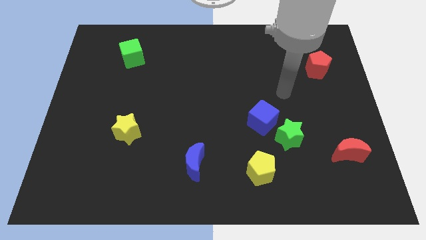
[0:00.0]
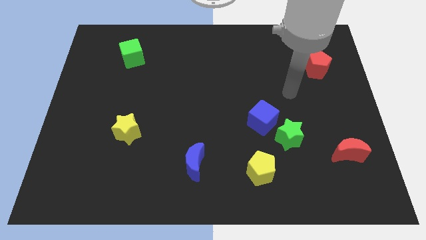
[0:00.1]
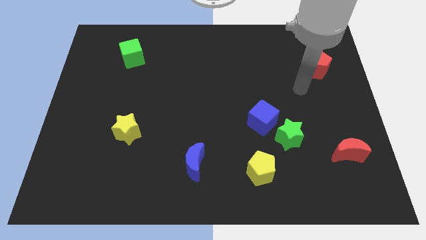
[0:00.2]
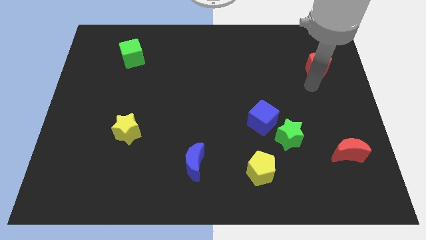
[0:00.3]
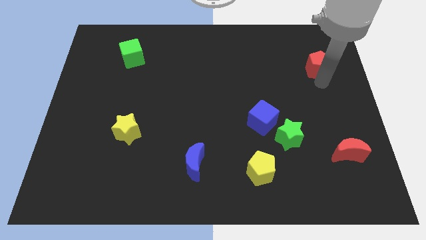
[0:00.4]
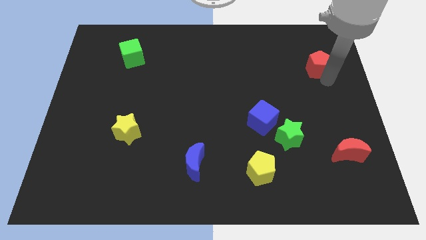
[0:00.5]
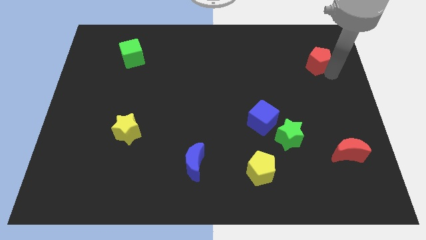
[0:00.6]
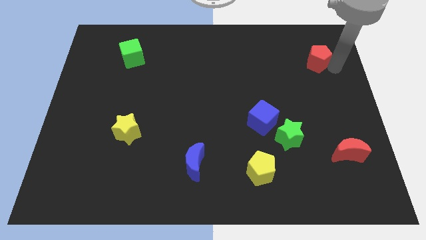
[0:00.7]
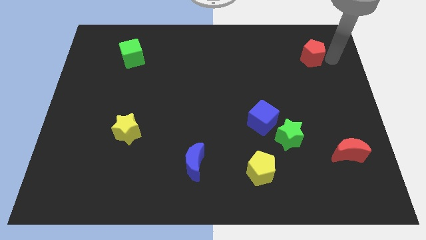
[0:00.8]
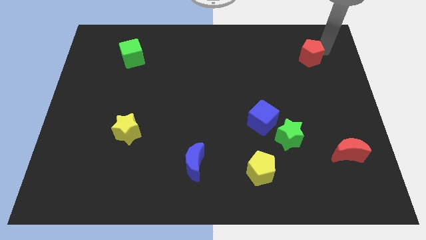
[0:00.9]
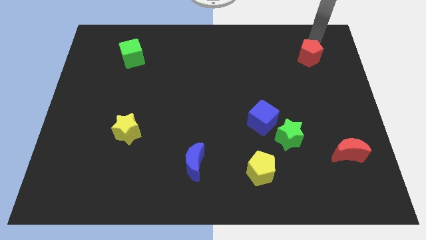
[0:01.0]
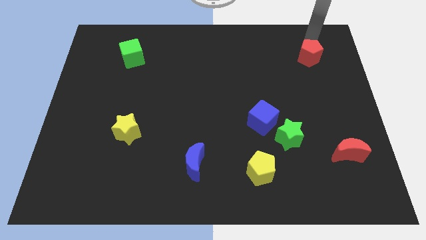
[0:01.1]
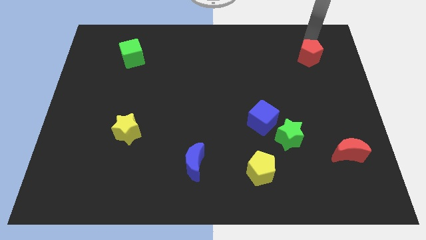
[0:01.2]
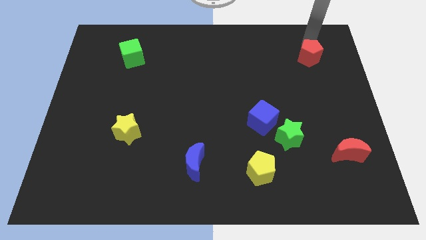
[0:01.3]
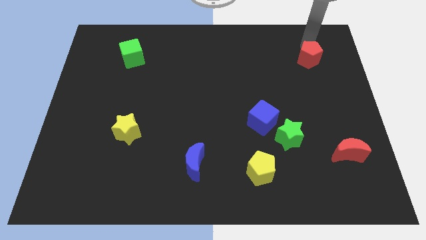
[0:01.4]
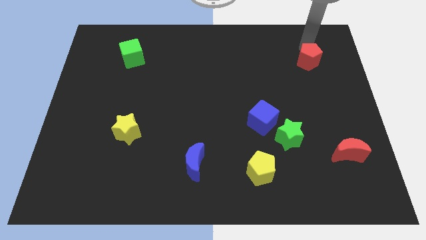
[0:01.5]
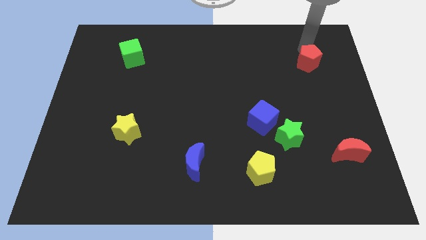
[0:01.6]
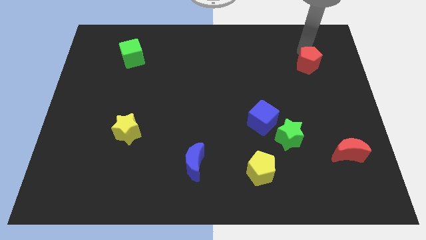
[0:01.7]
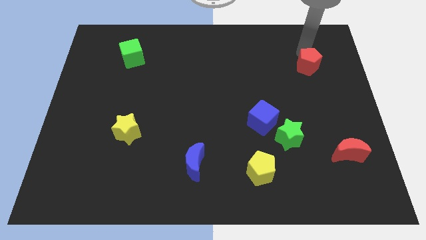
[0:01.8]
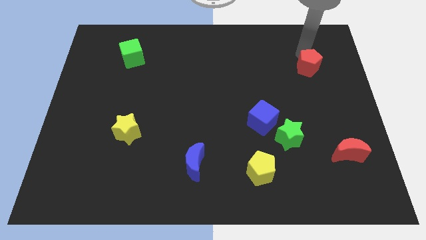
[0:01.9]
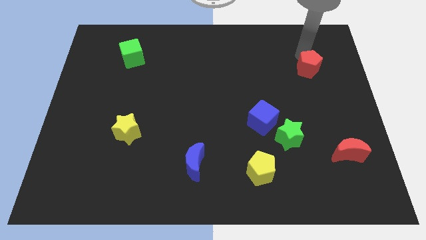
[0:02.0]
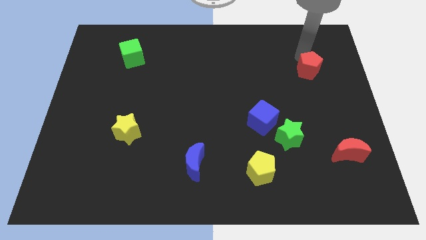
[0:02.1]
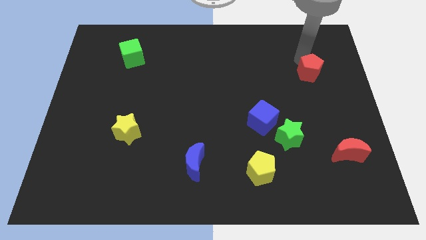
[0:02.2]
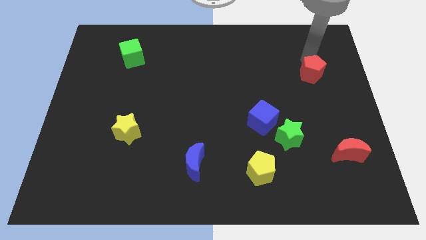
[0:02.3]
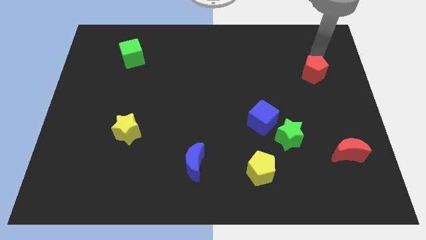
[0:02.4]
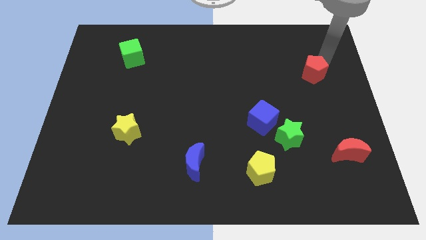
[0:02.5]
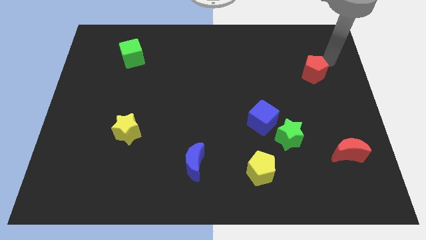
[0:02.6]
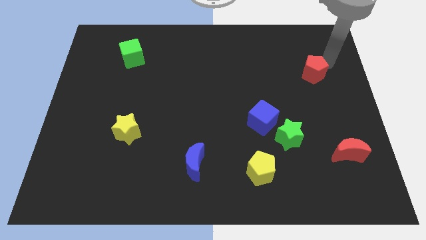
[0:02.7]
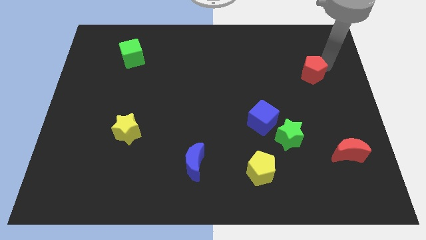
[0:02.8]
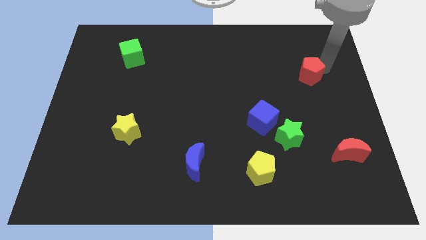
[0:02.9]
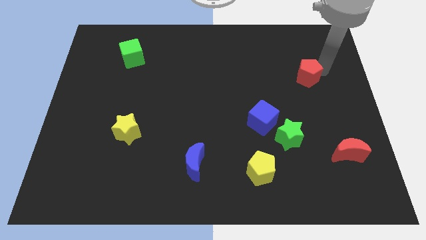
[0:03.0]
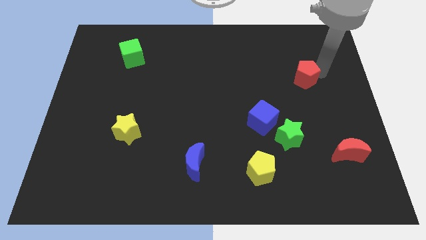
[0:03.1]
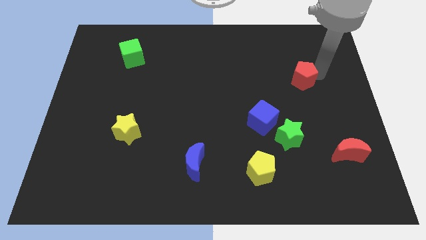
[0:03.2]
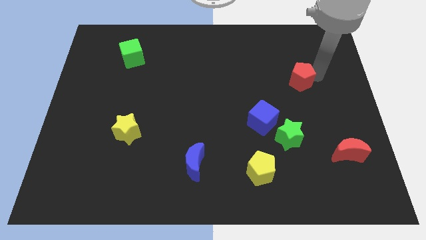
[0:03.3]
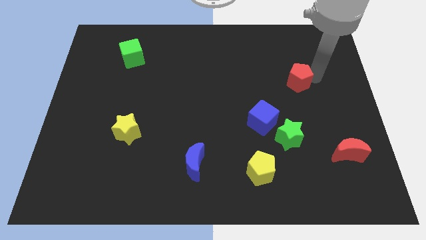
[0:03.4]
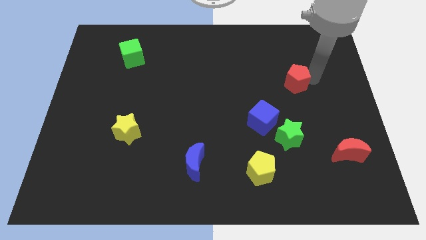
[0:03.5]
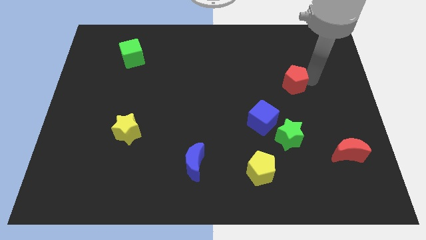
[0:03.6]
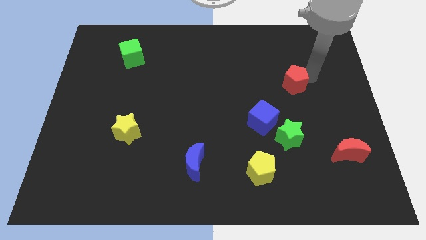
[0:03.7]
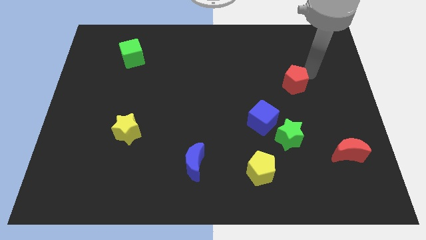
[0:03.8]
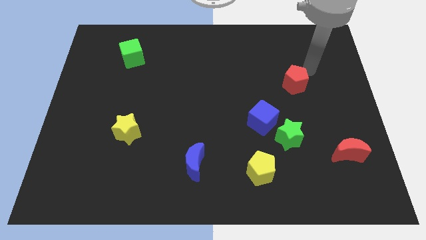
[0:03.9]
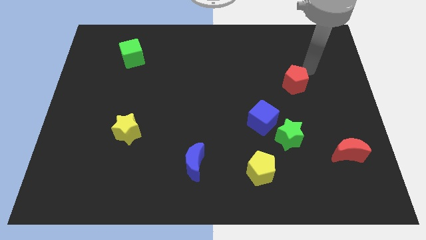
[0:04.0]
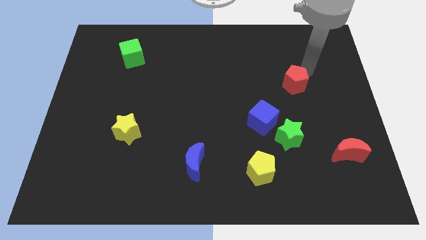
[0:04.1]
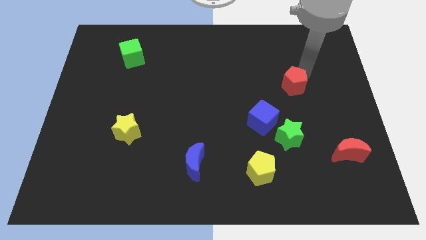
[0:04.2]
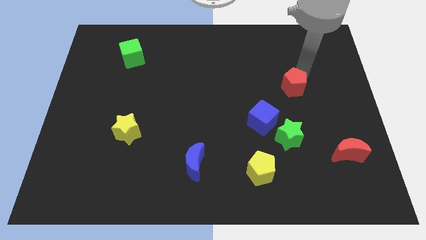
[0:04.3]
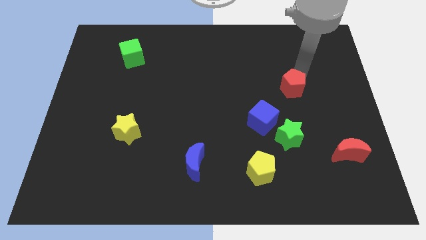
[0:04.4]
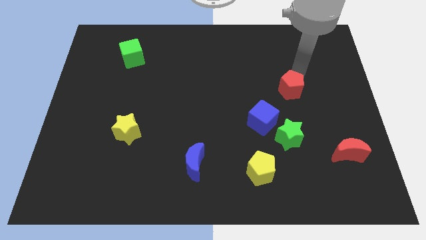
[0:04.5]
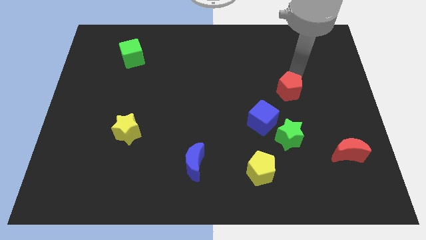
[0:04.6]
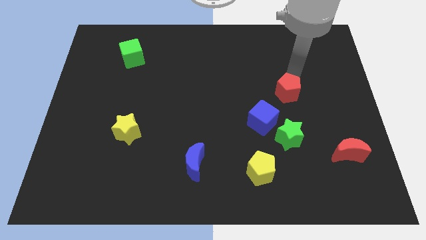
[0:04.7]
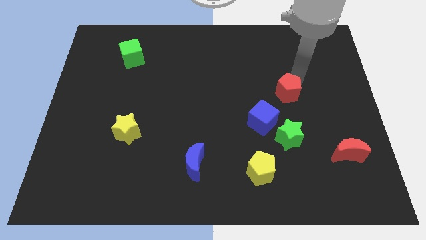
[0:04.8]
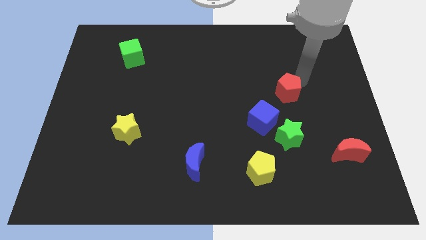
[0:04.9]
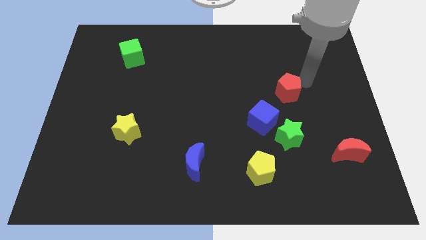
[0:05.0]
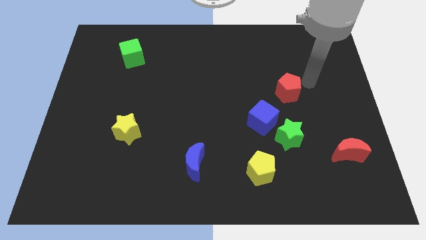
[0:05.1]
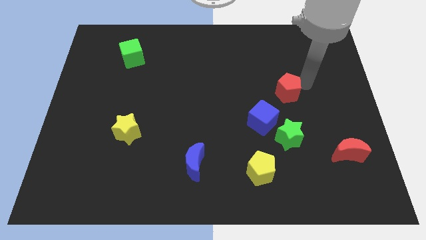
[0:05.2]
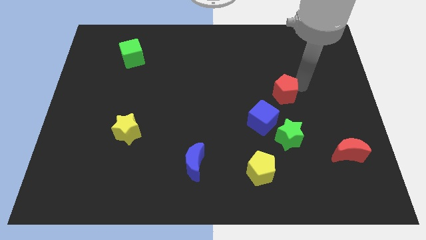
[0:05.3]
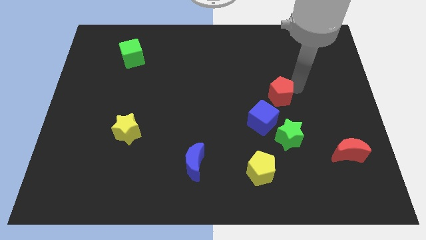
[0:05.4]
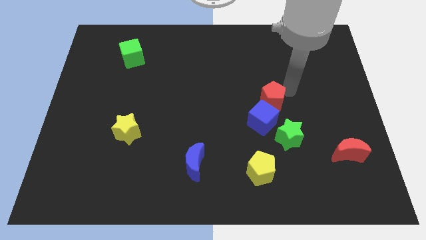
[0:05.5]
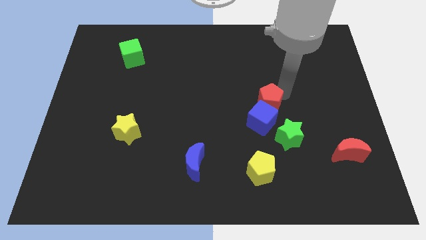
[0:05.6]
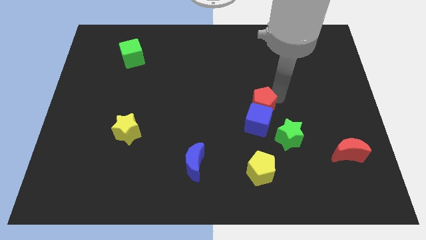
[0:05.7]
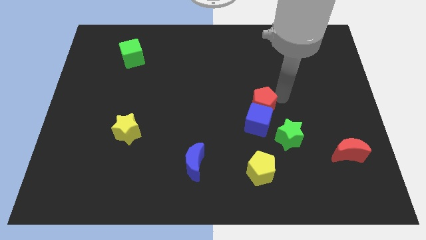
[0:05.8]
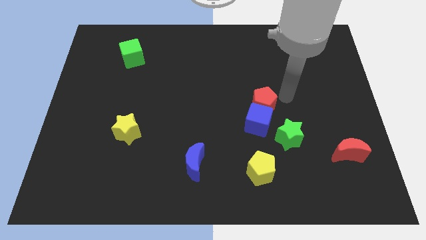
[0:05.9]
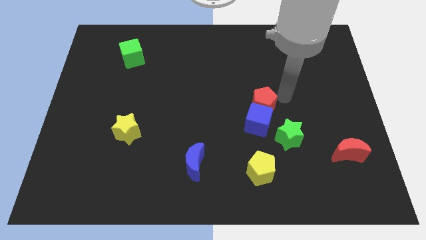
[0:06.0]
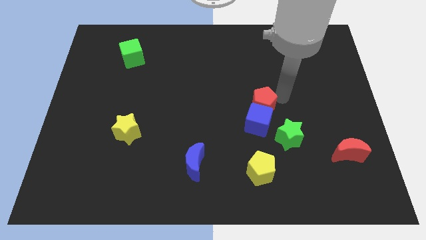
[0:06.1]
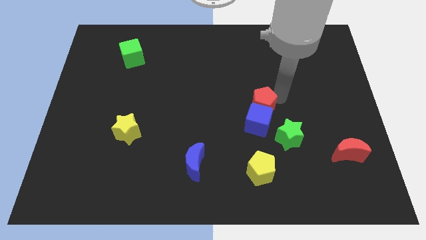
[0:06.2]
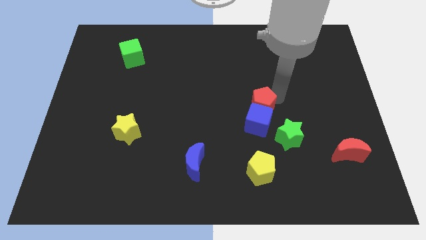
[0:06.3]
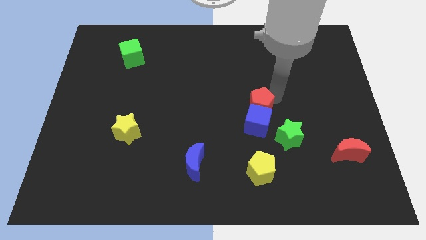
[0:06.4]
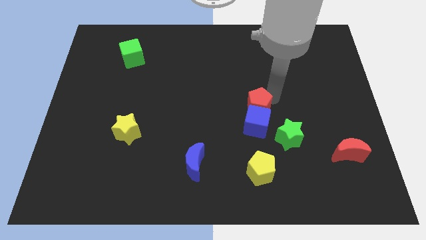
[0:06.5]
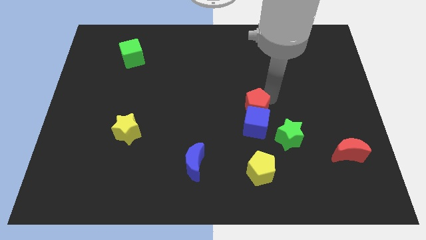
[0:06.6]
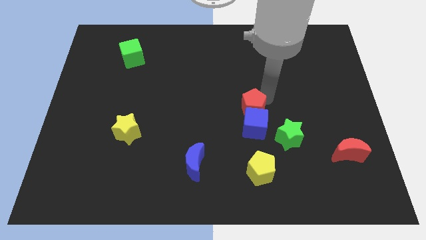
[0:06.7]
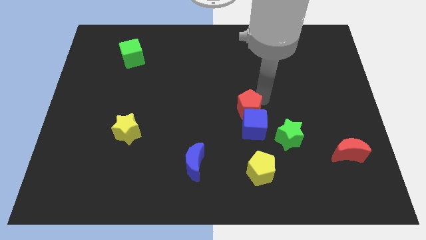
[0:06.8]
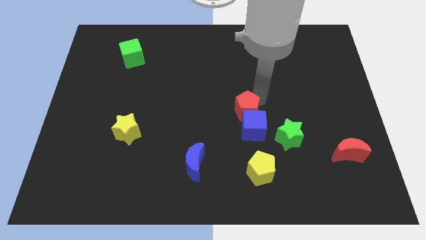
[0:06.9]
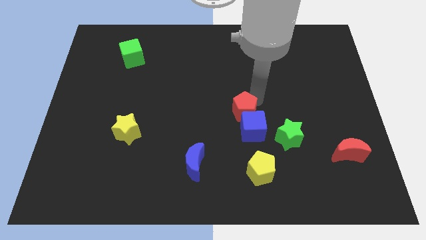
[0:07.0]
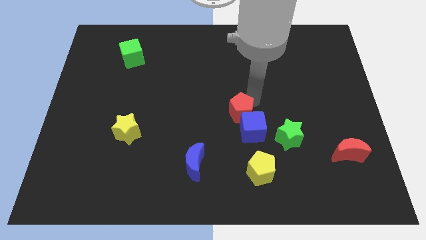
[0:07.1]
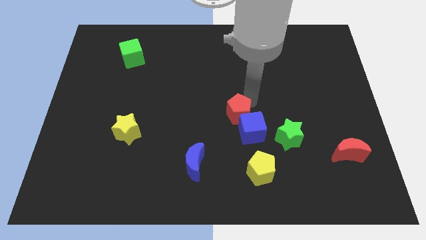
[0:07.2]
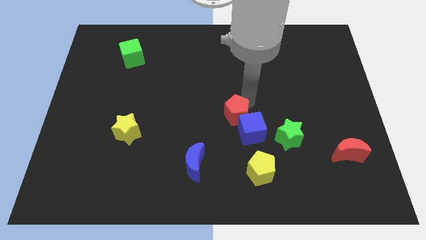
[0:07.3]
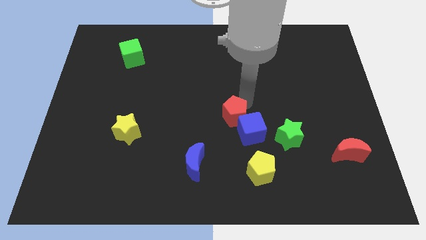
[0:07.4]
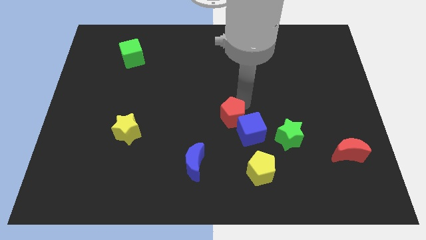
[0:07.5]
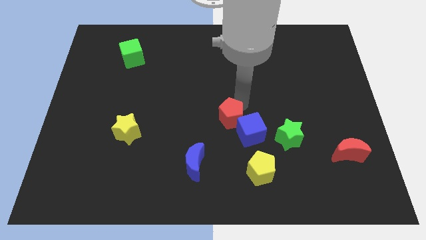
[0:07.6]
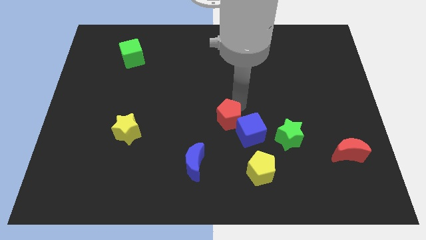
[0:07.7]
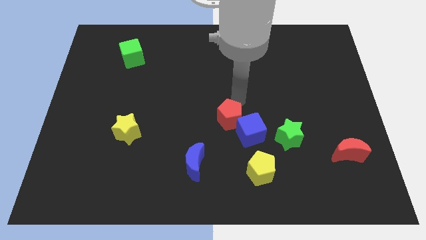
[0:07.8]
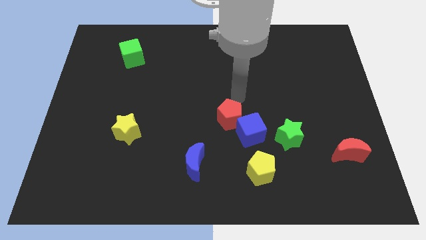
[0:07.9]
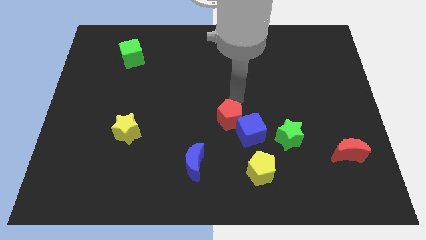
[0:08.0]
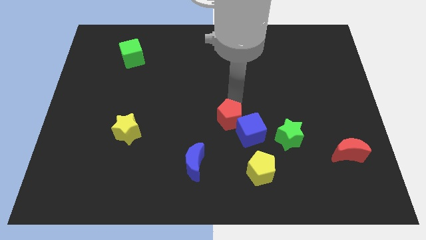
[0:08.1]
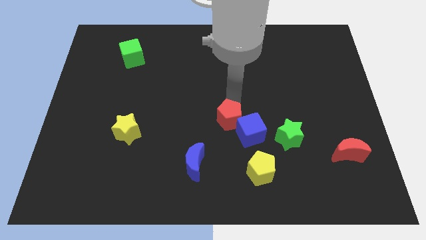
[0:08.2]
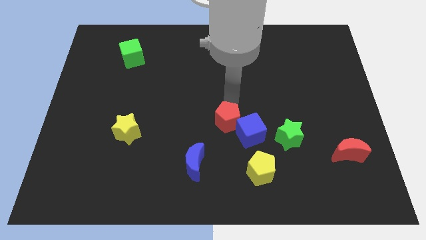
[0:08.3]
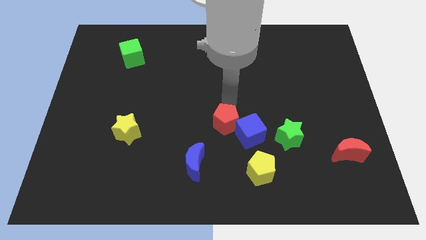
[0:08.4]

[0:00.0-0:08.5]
slide the red pentagon to the top right side of the blue moon
